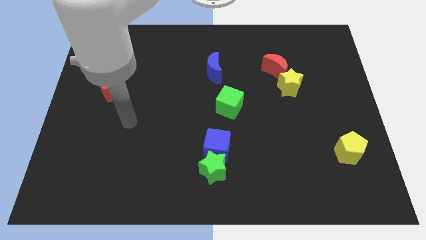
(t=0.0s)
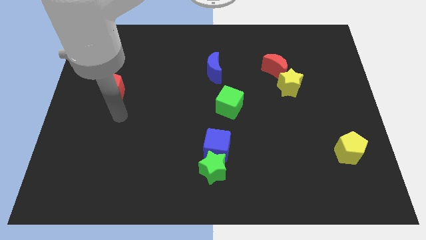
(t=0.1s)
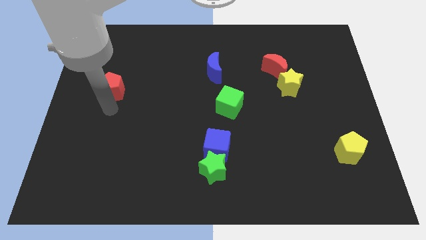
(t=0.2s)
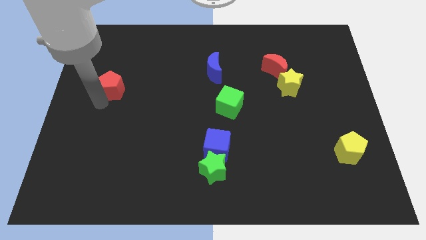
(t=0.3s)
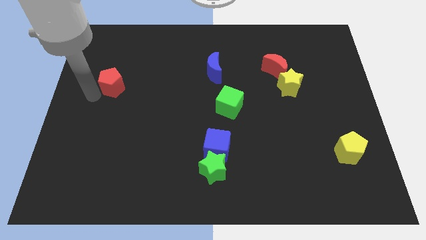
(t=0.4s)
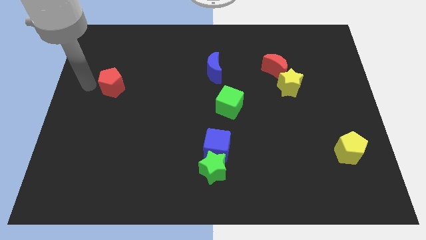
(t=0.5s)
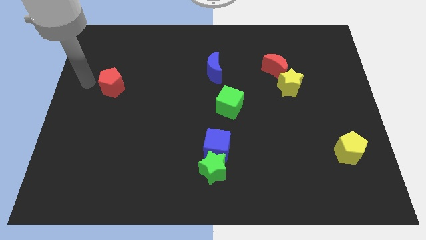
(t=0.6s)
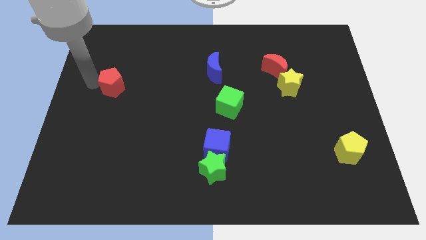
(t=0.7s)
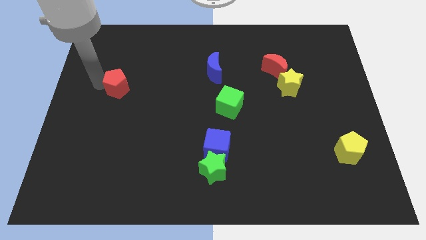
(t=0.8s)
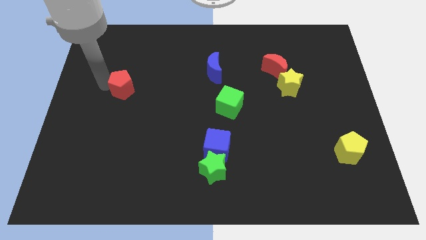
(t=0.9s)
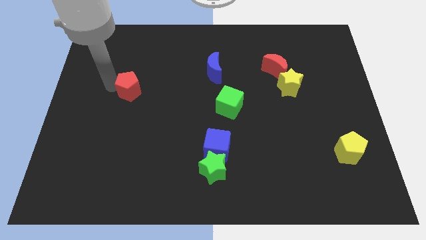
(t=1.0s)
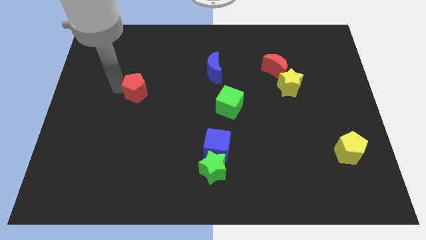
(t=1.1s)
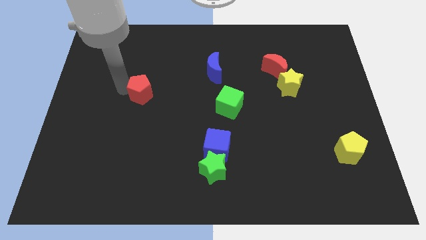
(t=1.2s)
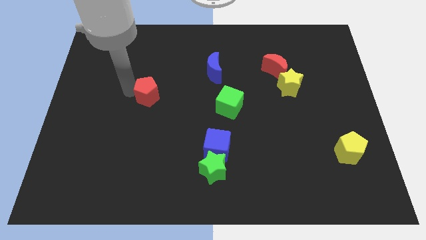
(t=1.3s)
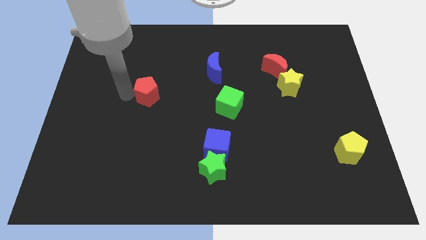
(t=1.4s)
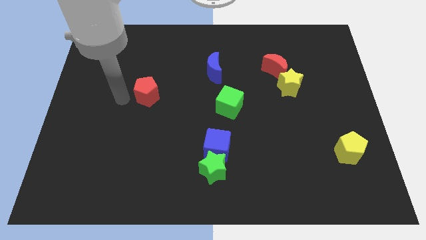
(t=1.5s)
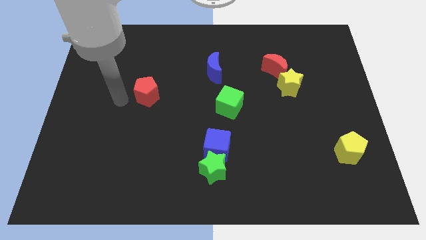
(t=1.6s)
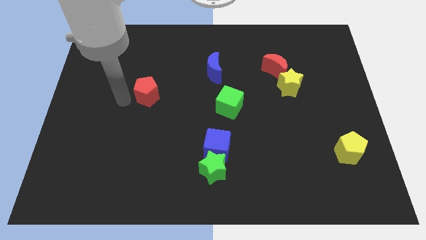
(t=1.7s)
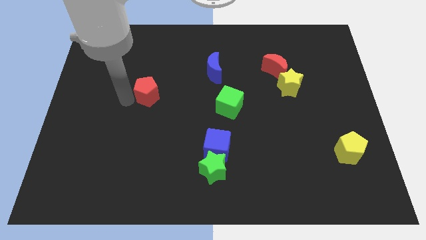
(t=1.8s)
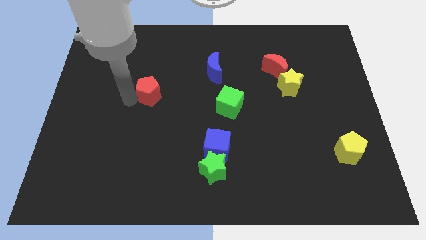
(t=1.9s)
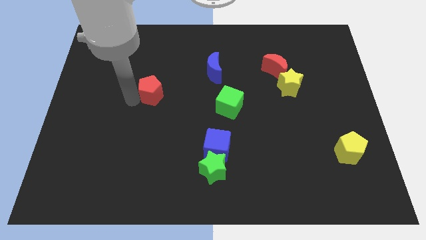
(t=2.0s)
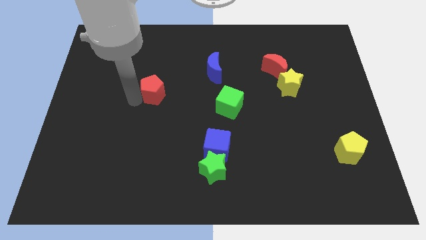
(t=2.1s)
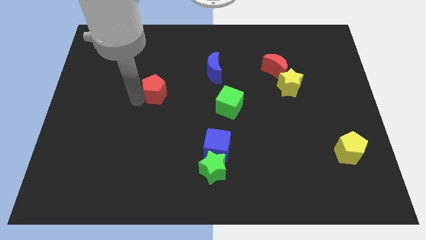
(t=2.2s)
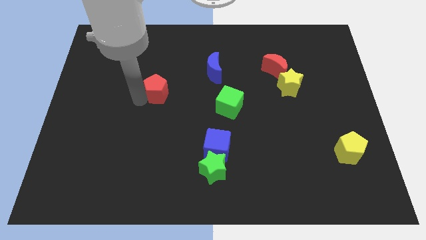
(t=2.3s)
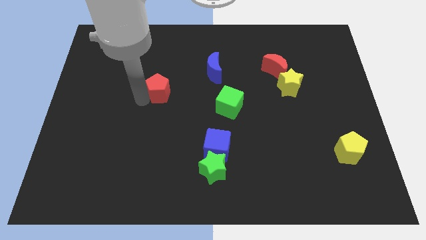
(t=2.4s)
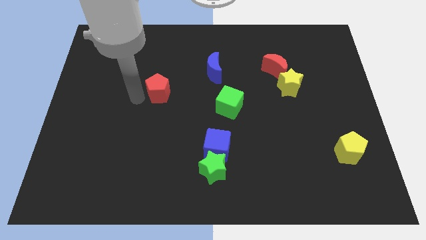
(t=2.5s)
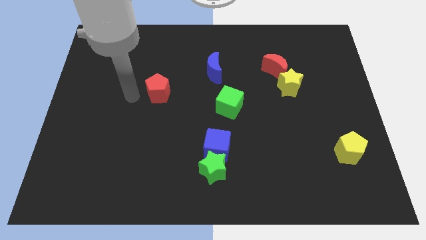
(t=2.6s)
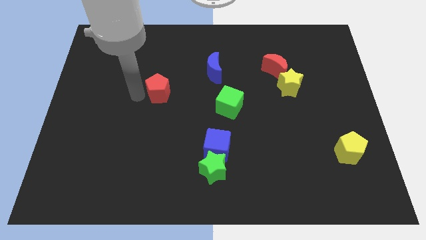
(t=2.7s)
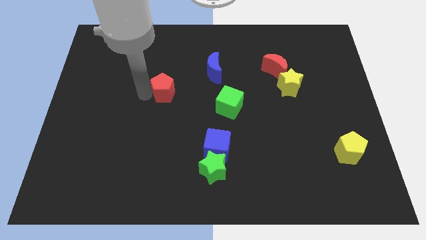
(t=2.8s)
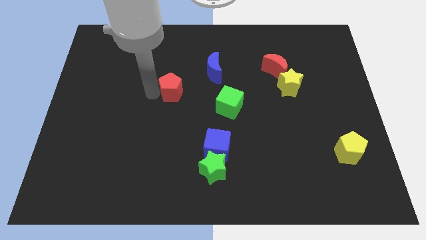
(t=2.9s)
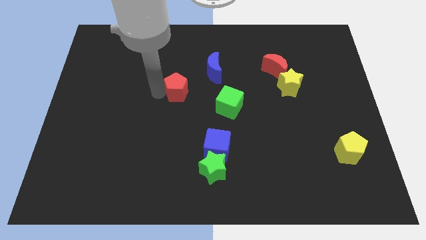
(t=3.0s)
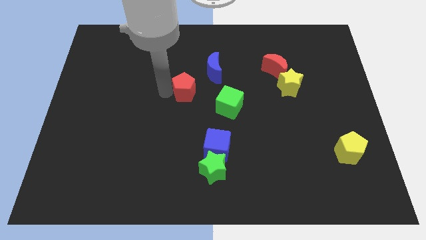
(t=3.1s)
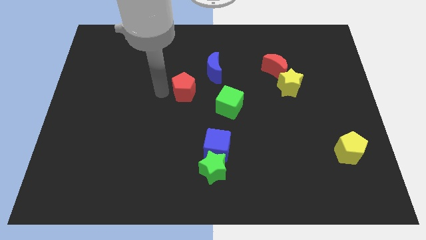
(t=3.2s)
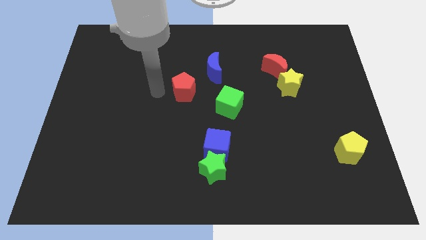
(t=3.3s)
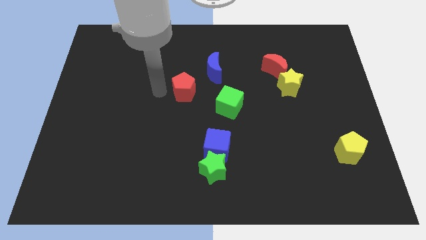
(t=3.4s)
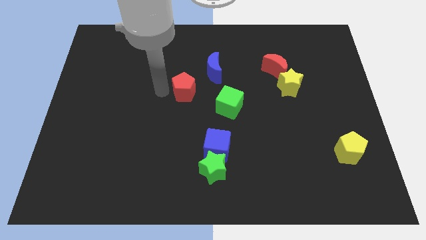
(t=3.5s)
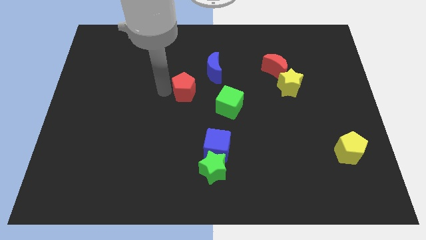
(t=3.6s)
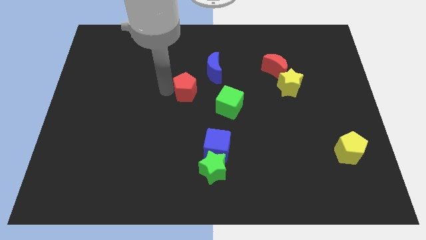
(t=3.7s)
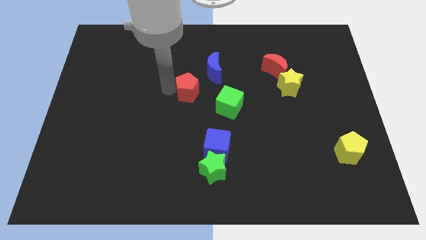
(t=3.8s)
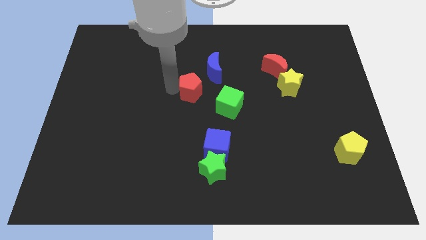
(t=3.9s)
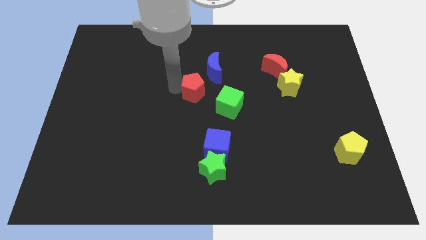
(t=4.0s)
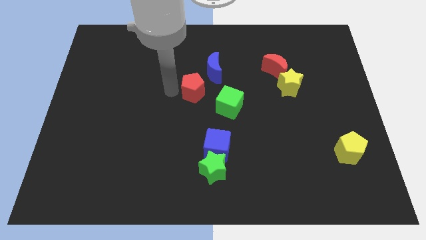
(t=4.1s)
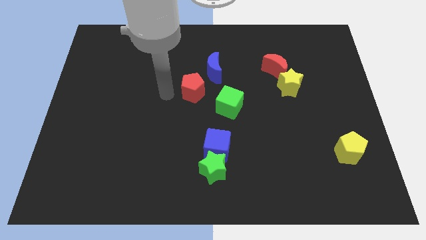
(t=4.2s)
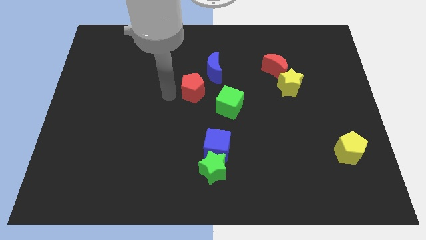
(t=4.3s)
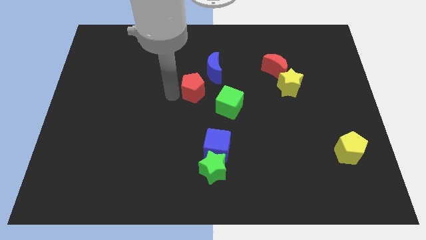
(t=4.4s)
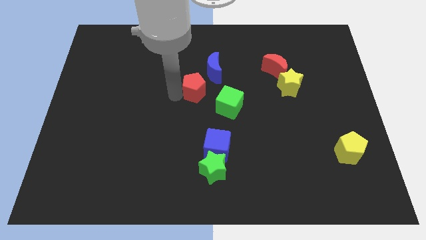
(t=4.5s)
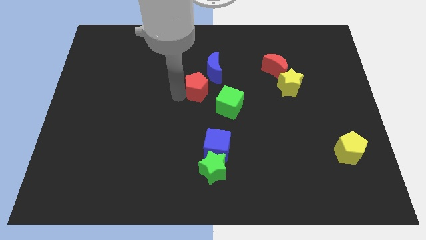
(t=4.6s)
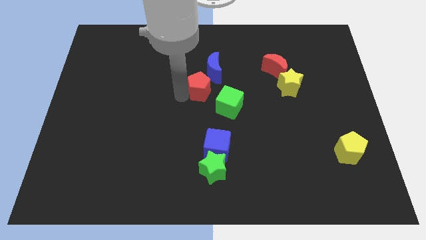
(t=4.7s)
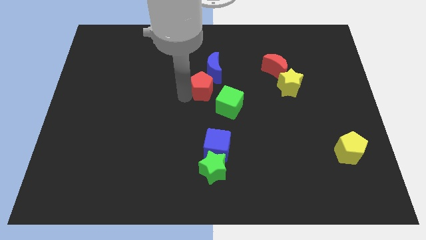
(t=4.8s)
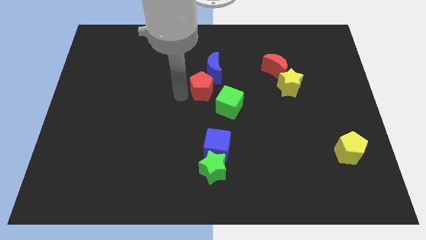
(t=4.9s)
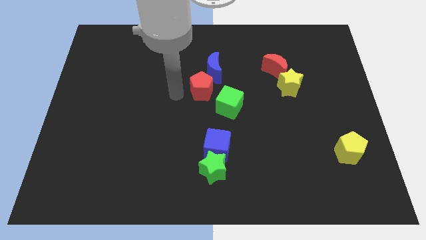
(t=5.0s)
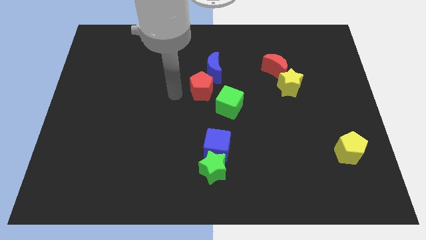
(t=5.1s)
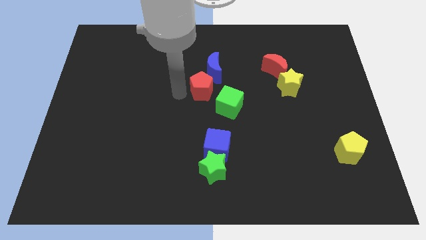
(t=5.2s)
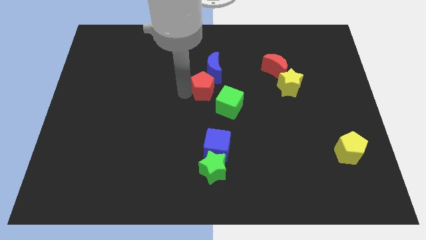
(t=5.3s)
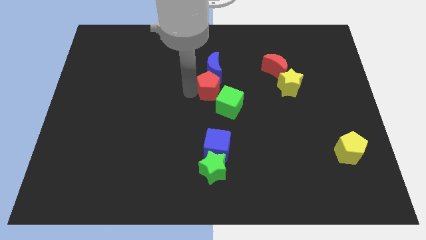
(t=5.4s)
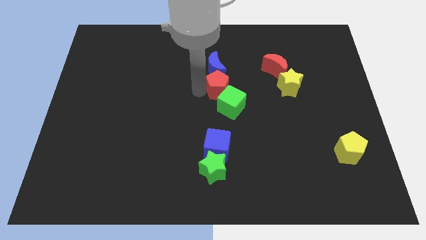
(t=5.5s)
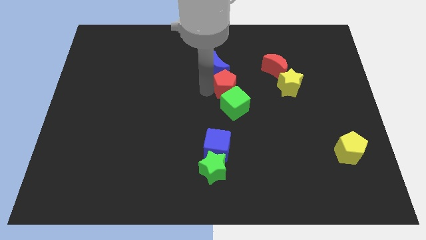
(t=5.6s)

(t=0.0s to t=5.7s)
put the red pentagon left of the yellow star

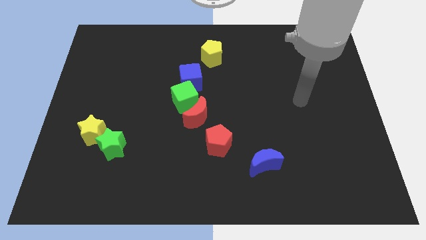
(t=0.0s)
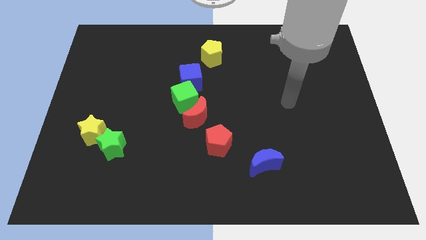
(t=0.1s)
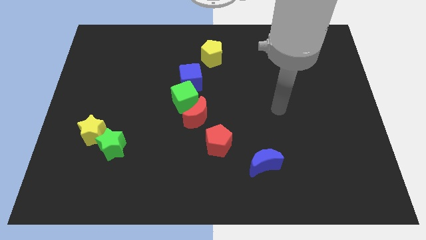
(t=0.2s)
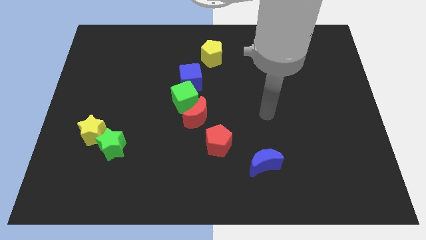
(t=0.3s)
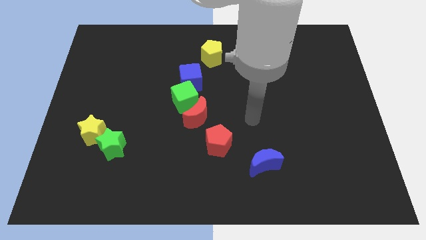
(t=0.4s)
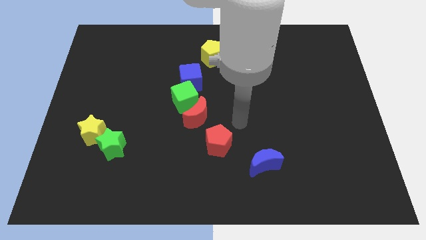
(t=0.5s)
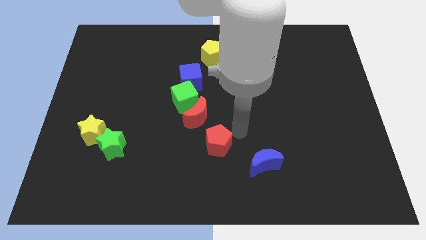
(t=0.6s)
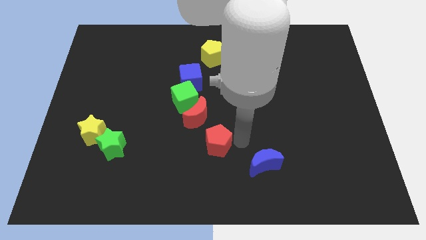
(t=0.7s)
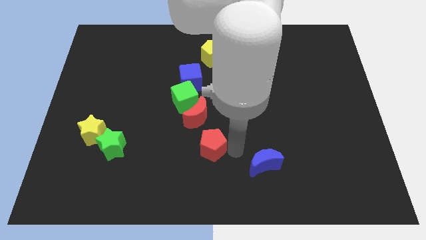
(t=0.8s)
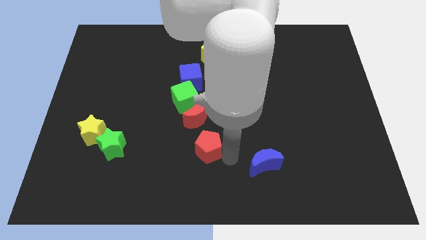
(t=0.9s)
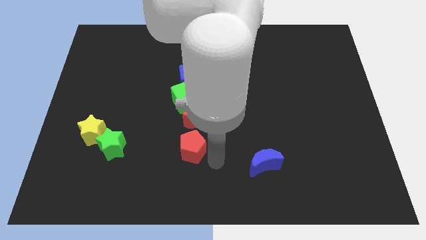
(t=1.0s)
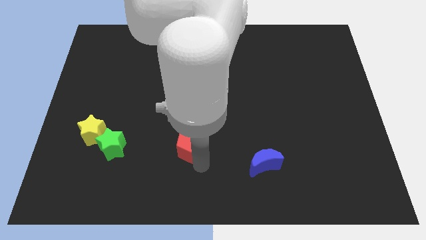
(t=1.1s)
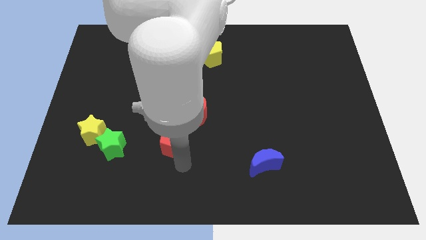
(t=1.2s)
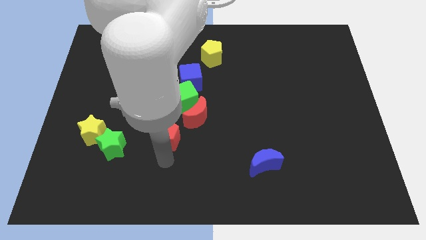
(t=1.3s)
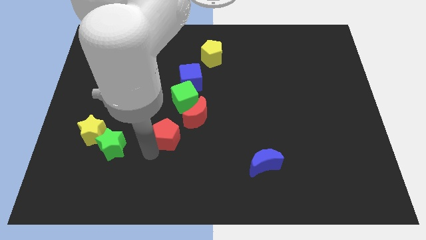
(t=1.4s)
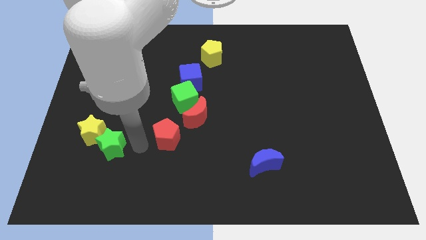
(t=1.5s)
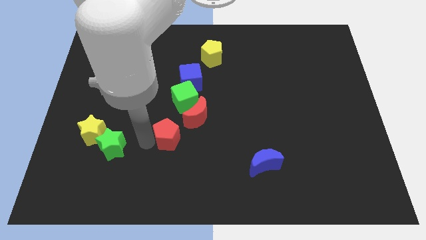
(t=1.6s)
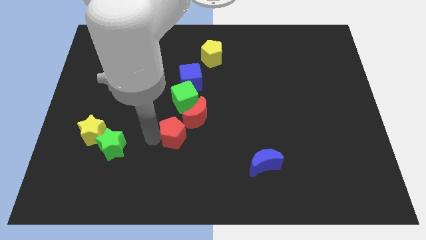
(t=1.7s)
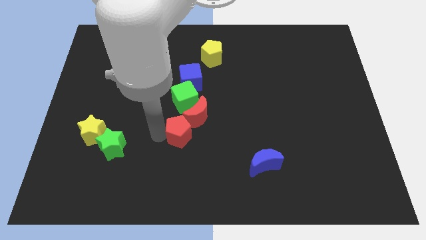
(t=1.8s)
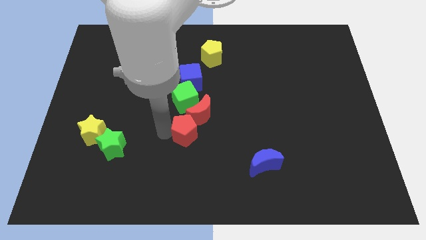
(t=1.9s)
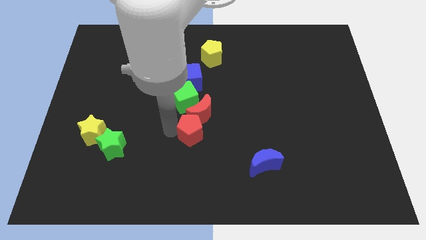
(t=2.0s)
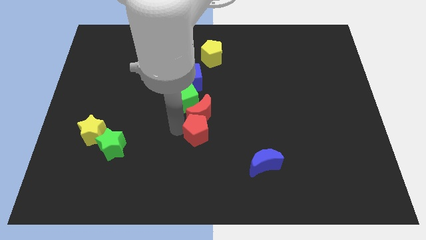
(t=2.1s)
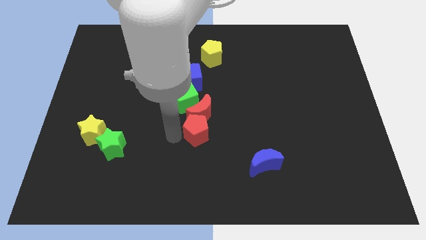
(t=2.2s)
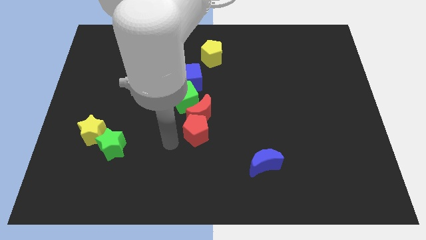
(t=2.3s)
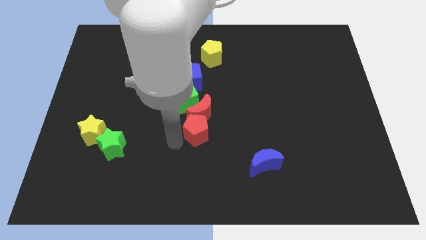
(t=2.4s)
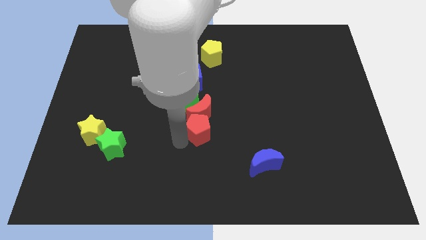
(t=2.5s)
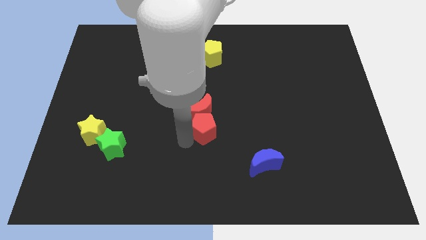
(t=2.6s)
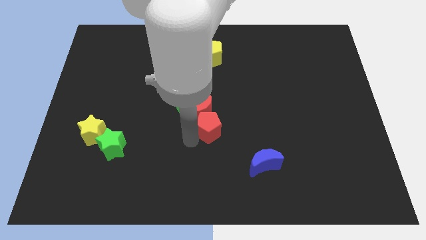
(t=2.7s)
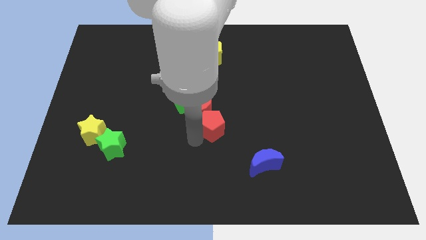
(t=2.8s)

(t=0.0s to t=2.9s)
slide the red pentagon just right of the red moon
